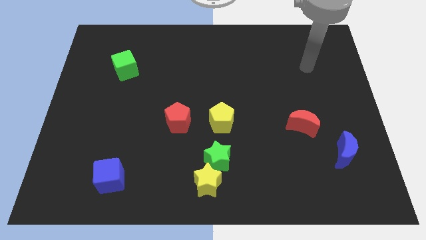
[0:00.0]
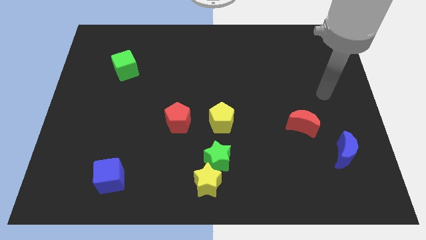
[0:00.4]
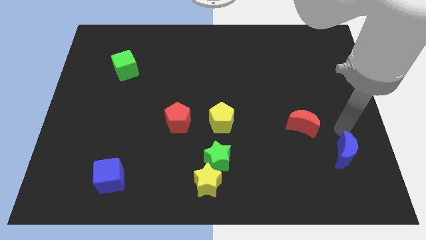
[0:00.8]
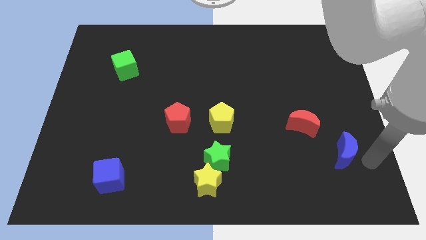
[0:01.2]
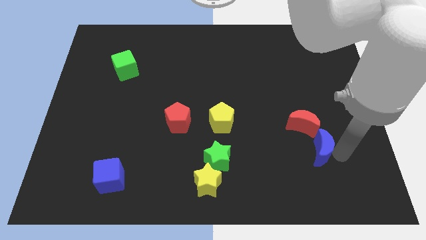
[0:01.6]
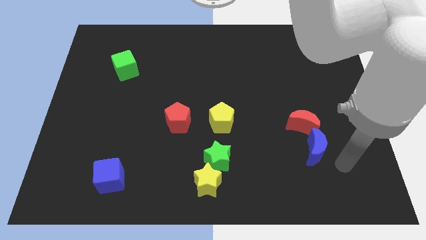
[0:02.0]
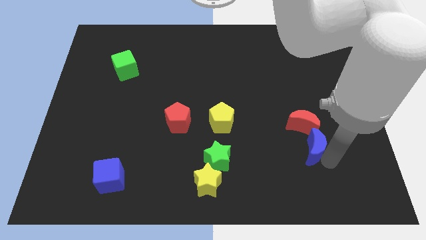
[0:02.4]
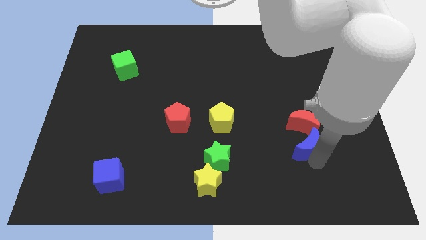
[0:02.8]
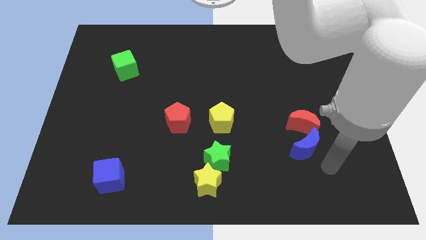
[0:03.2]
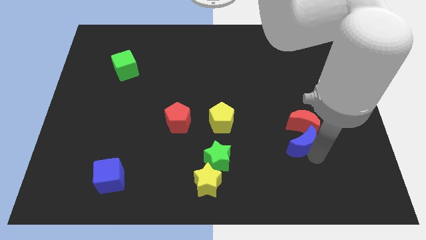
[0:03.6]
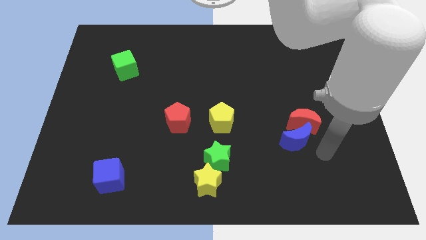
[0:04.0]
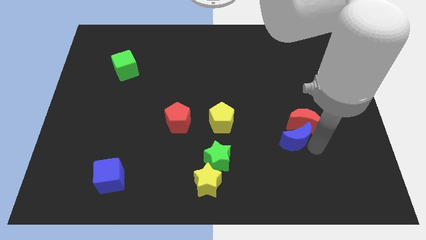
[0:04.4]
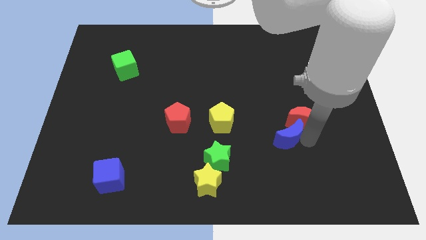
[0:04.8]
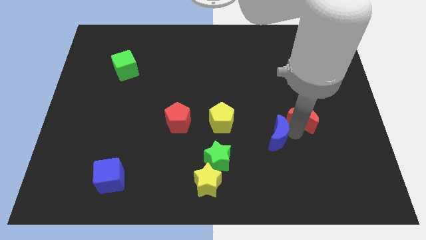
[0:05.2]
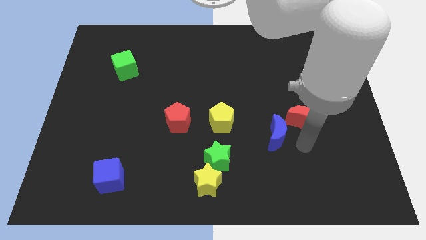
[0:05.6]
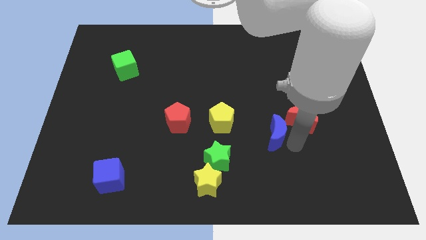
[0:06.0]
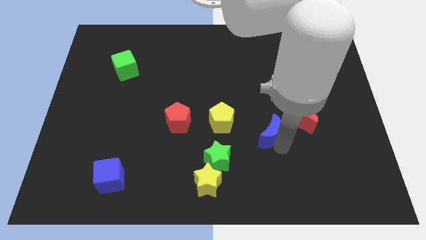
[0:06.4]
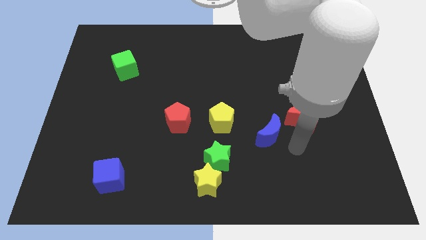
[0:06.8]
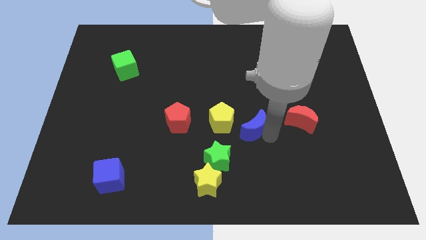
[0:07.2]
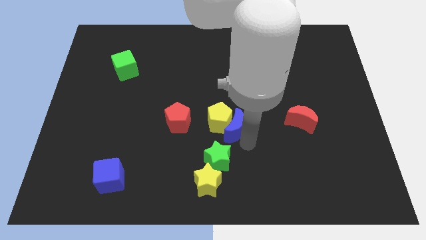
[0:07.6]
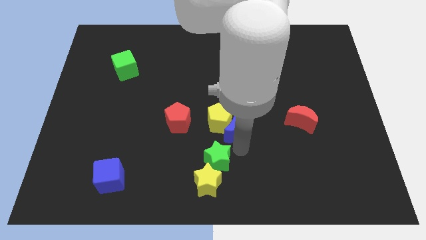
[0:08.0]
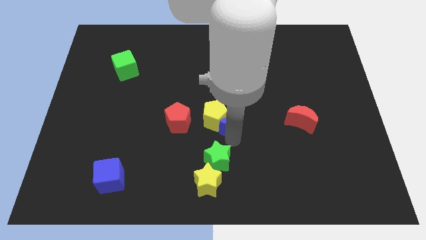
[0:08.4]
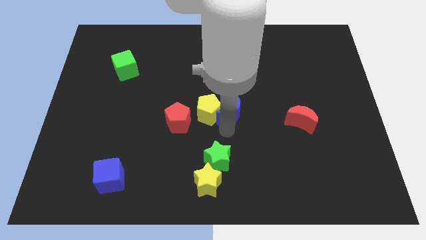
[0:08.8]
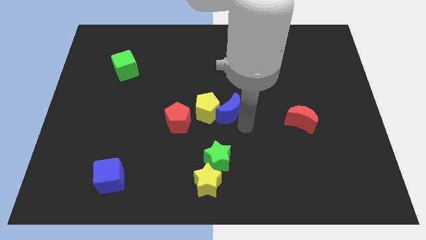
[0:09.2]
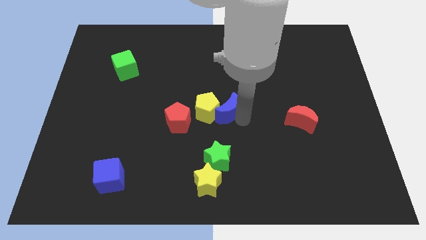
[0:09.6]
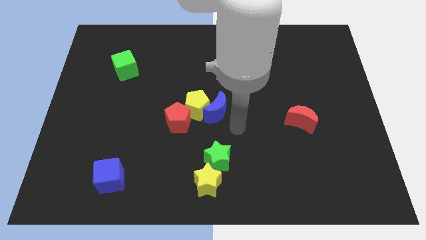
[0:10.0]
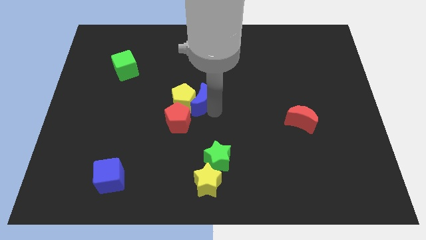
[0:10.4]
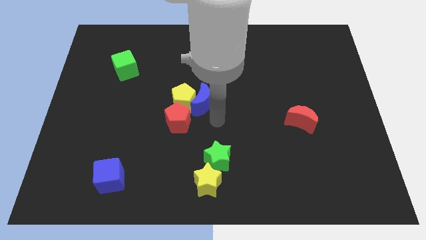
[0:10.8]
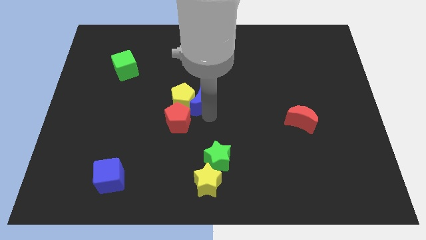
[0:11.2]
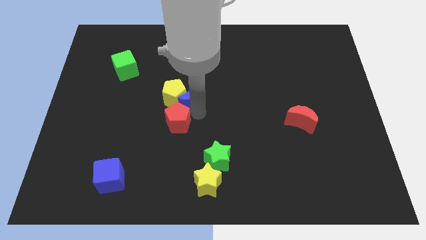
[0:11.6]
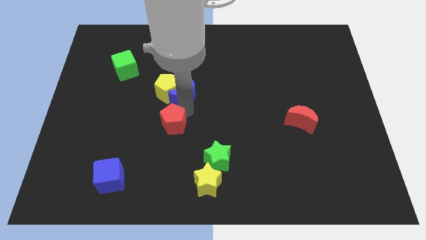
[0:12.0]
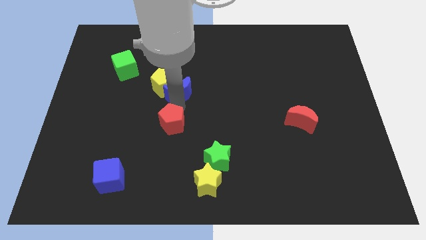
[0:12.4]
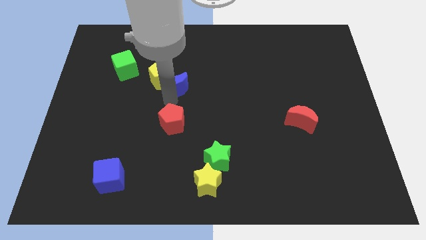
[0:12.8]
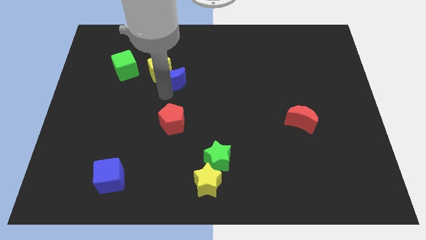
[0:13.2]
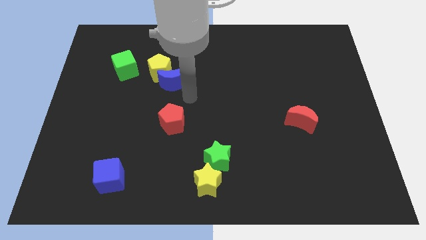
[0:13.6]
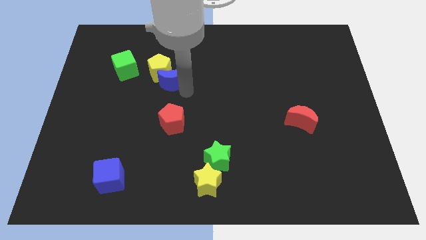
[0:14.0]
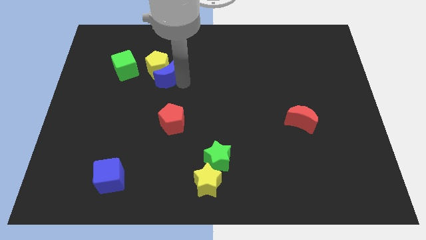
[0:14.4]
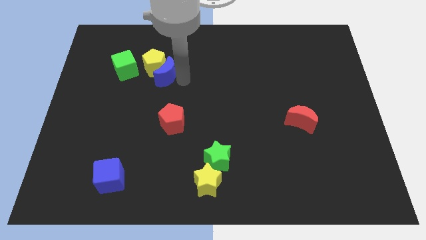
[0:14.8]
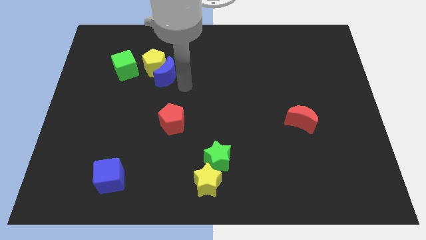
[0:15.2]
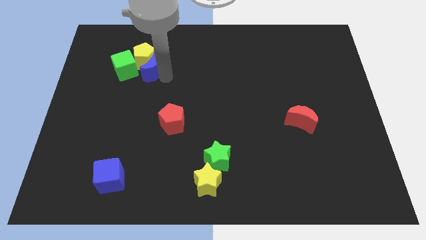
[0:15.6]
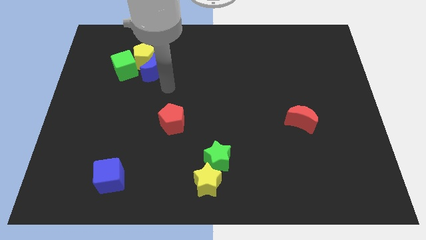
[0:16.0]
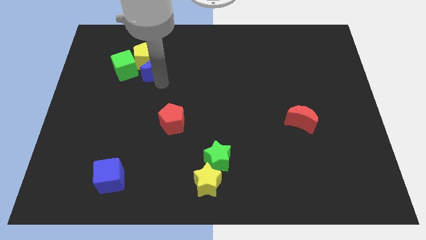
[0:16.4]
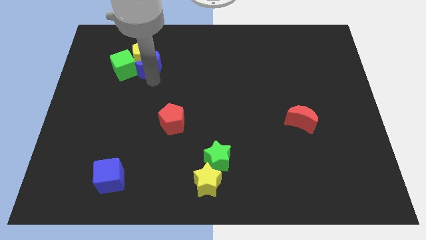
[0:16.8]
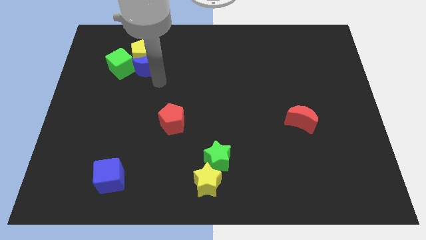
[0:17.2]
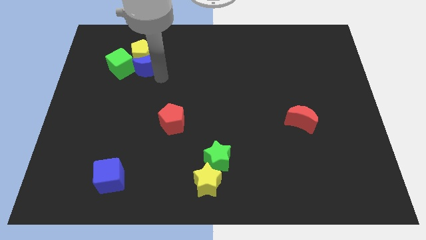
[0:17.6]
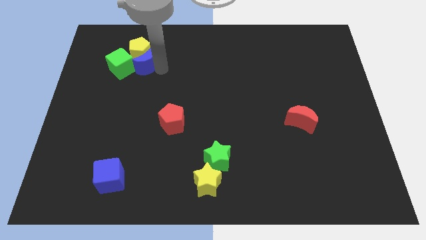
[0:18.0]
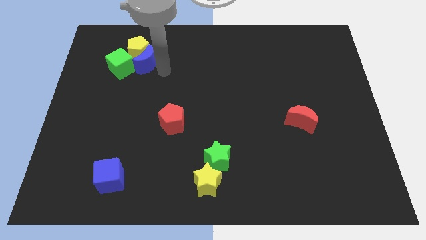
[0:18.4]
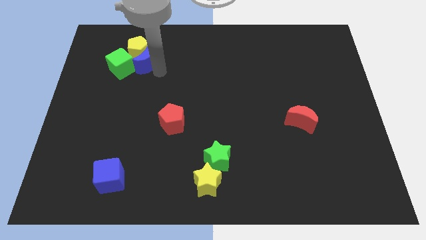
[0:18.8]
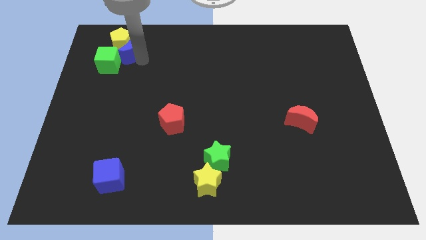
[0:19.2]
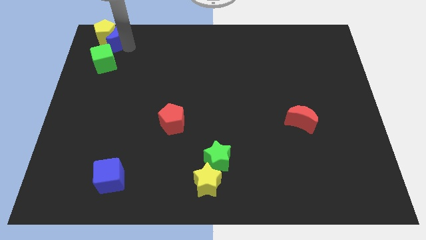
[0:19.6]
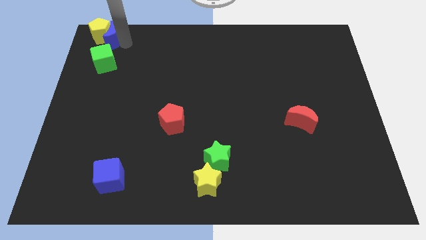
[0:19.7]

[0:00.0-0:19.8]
push the blue moon to the top left corner

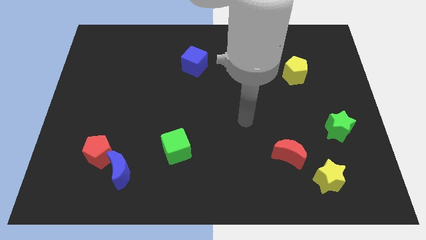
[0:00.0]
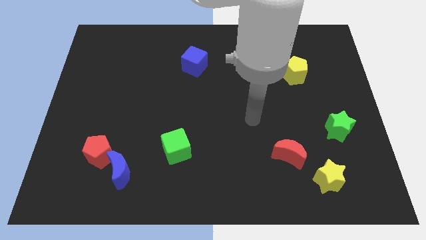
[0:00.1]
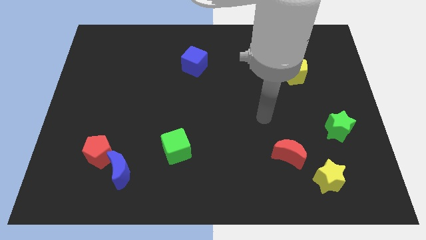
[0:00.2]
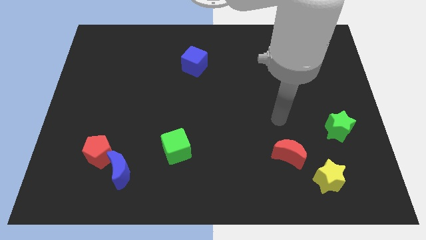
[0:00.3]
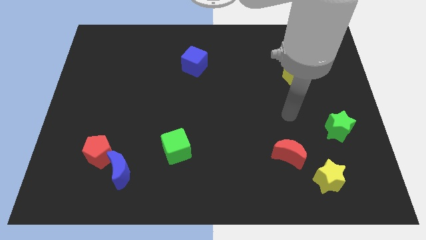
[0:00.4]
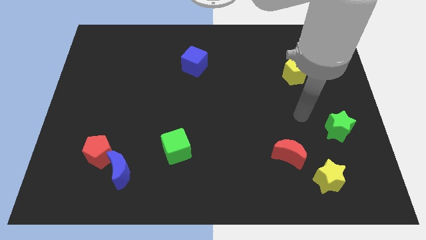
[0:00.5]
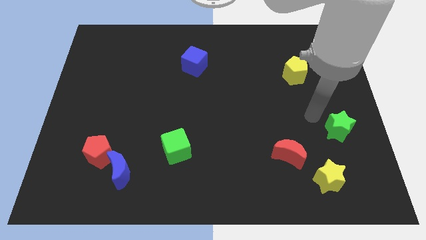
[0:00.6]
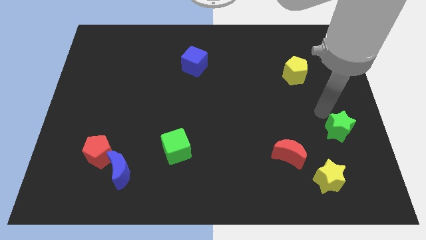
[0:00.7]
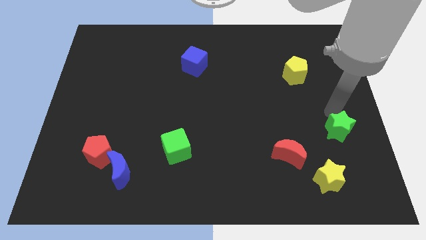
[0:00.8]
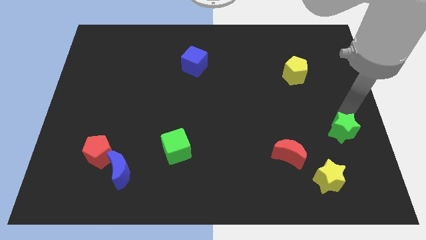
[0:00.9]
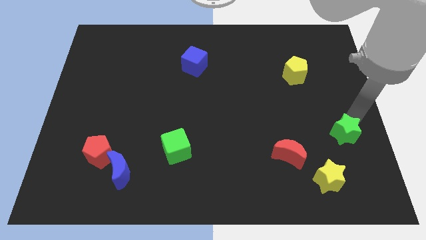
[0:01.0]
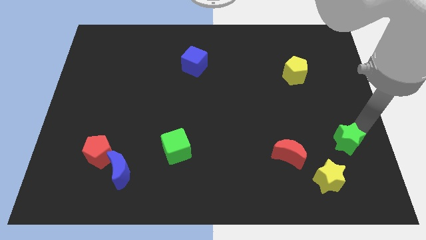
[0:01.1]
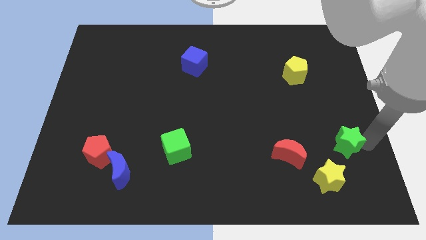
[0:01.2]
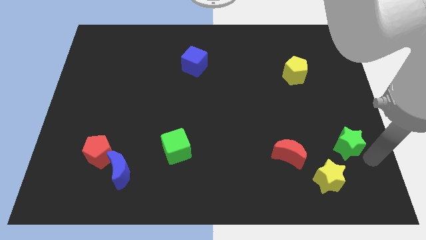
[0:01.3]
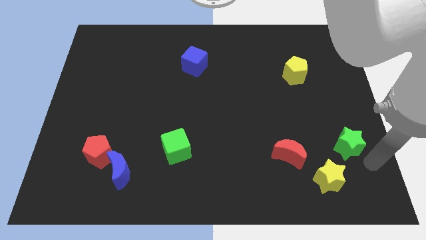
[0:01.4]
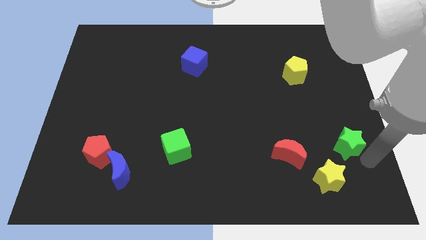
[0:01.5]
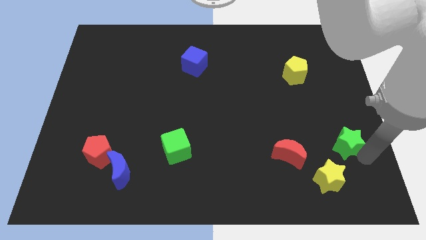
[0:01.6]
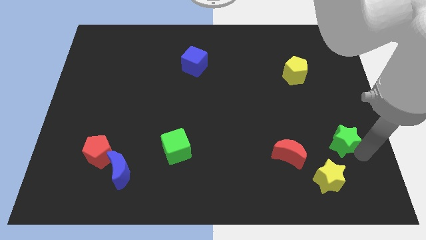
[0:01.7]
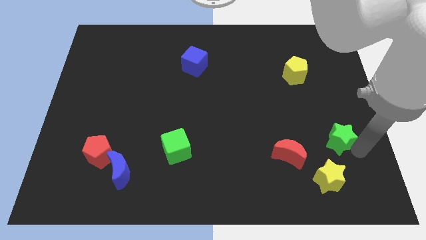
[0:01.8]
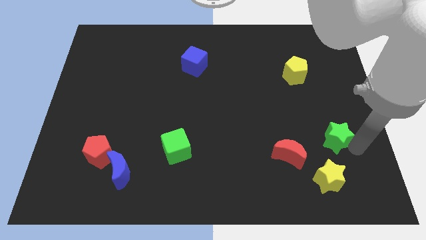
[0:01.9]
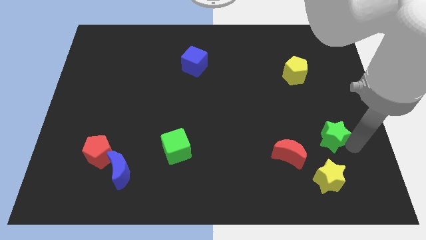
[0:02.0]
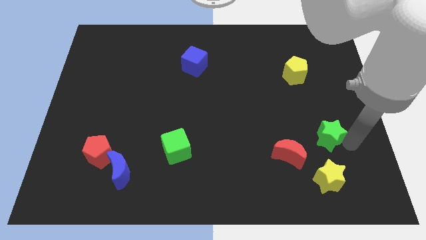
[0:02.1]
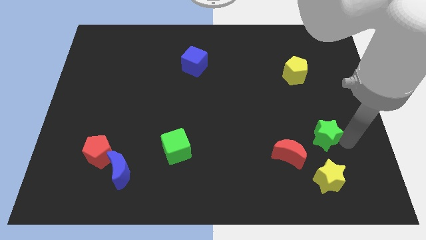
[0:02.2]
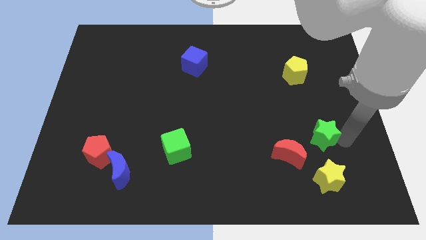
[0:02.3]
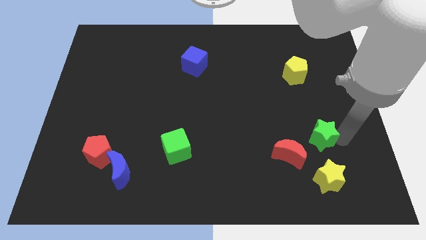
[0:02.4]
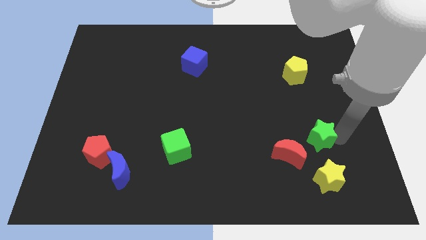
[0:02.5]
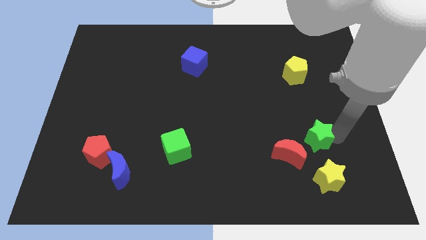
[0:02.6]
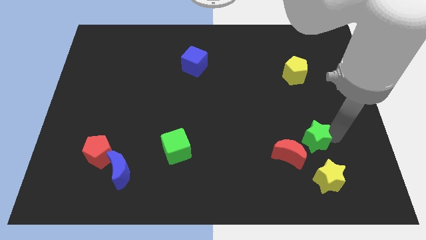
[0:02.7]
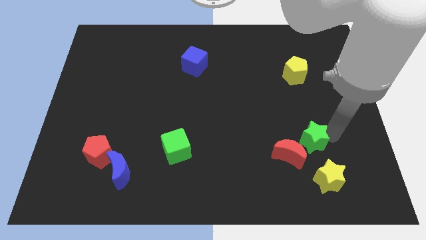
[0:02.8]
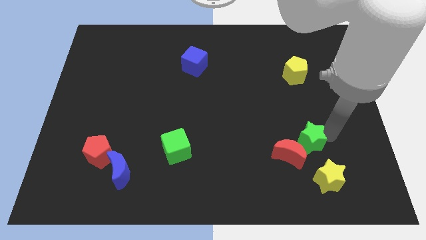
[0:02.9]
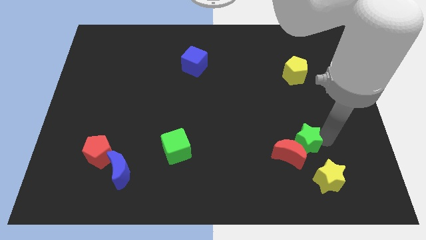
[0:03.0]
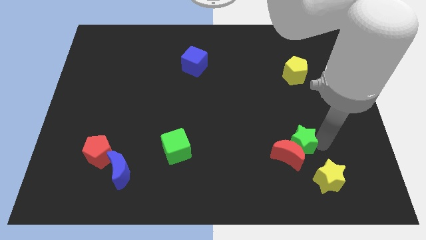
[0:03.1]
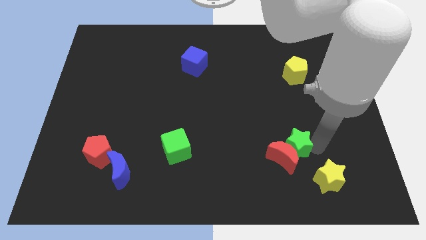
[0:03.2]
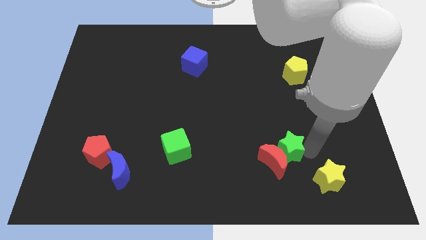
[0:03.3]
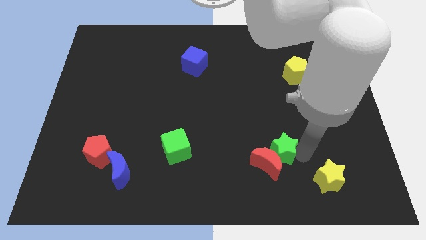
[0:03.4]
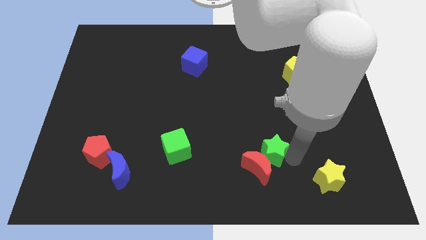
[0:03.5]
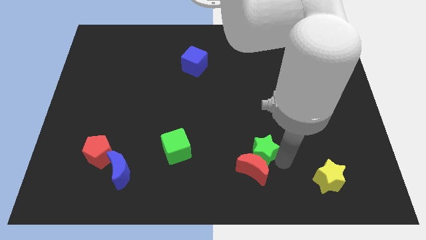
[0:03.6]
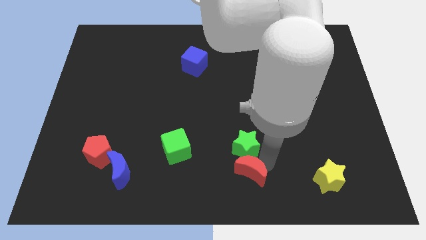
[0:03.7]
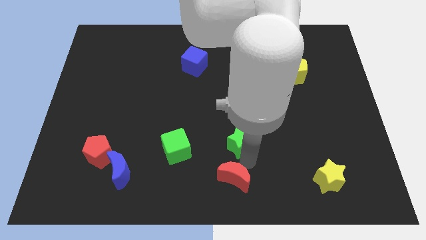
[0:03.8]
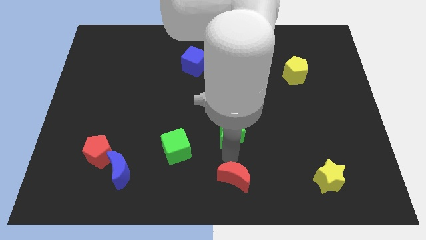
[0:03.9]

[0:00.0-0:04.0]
push the green star to the middle
